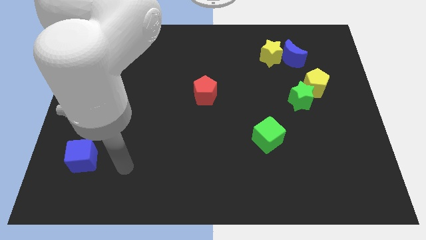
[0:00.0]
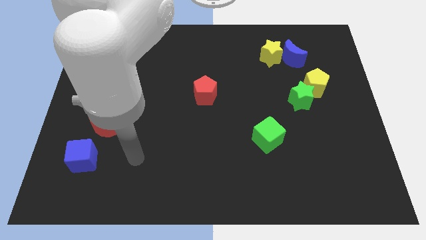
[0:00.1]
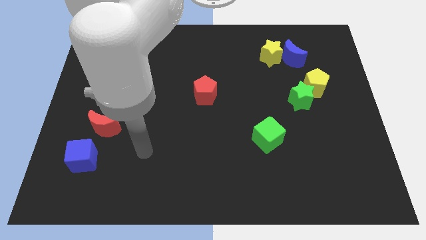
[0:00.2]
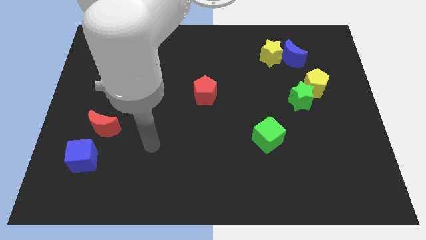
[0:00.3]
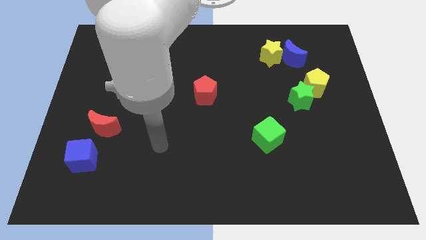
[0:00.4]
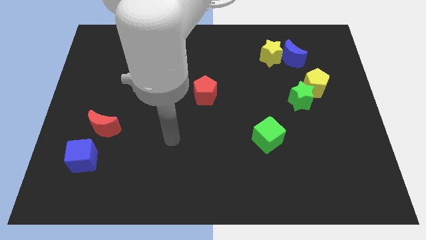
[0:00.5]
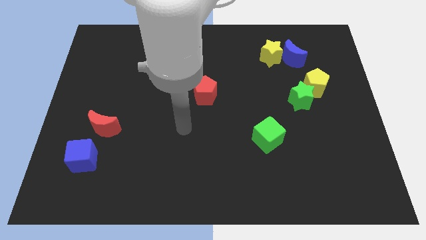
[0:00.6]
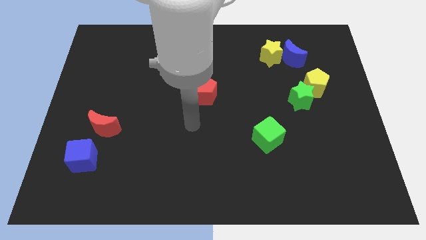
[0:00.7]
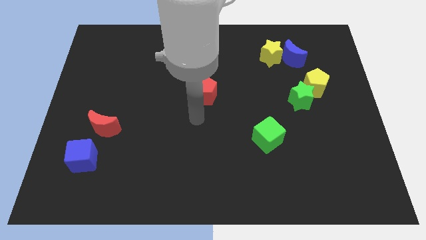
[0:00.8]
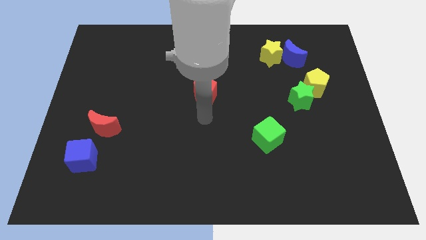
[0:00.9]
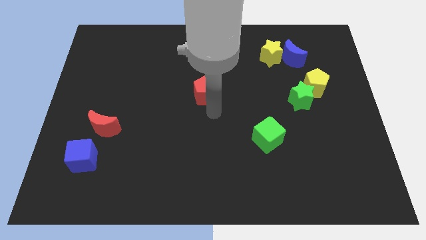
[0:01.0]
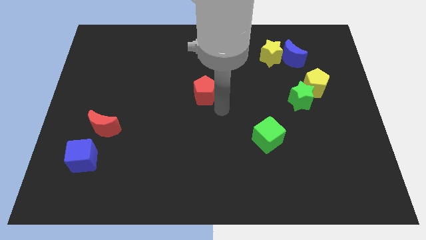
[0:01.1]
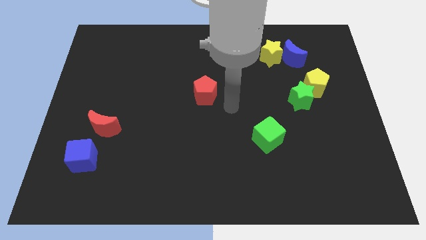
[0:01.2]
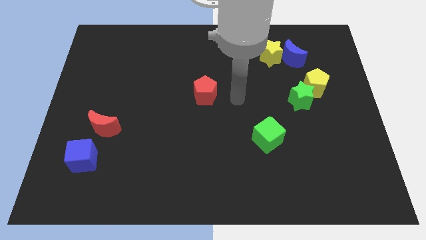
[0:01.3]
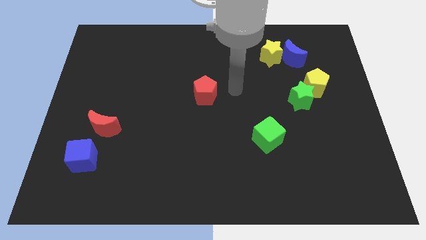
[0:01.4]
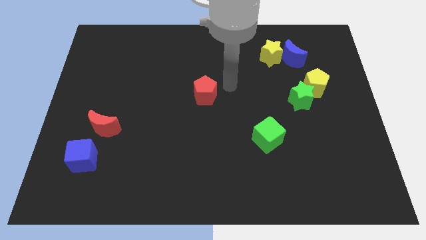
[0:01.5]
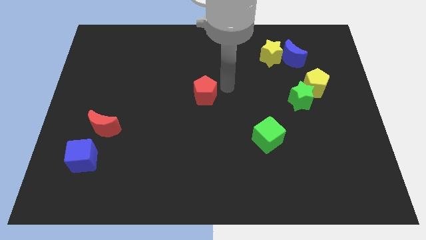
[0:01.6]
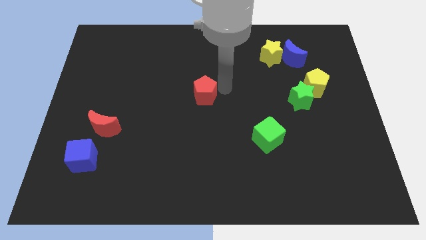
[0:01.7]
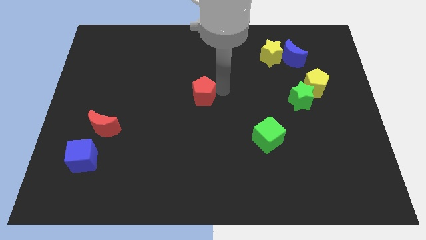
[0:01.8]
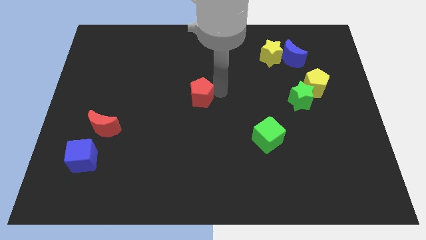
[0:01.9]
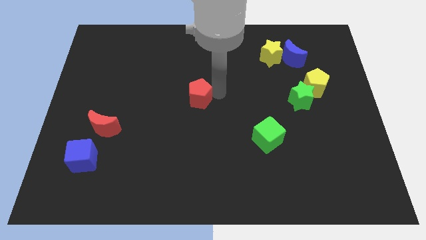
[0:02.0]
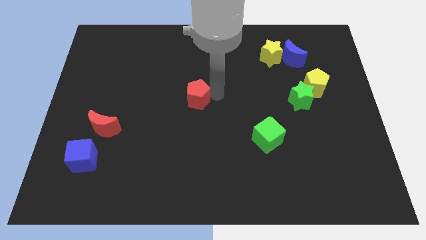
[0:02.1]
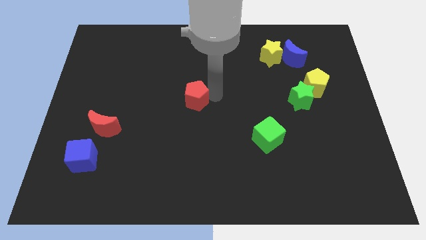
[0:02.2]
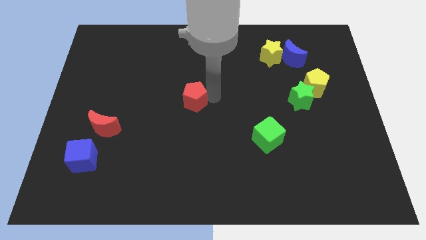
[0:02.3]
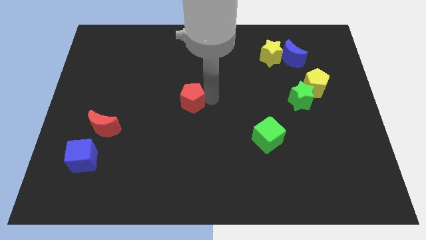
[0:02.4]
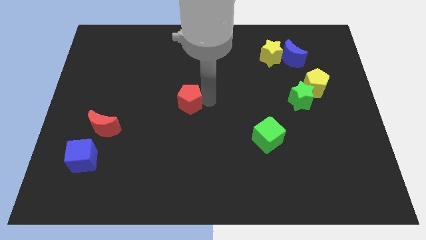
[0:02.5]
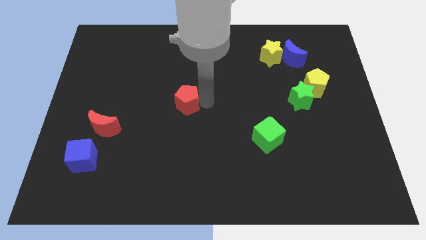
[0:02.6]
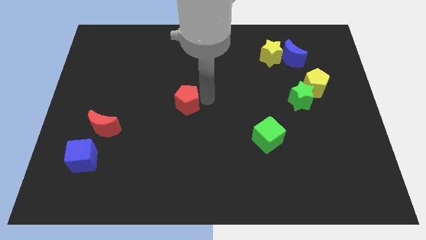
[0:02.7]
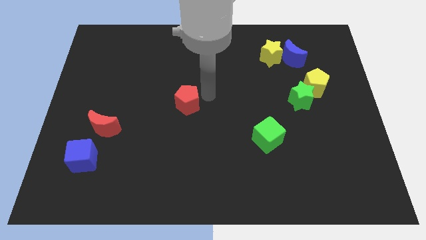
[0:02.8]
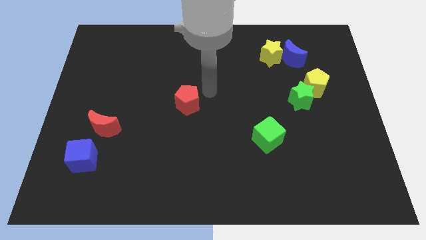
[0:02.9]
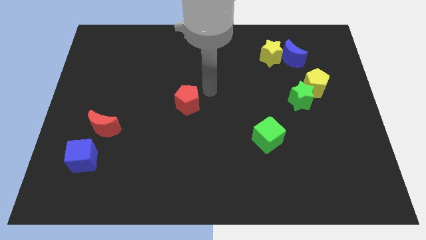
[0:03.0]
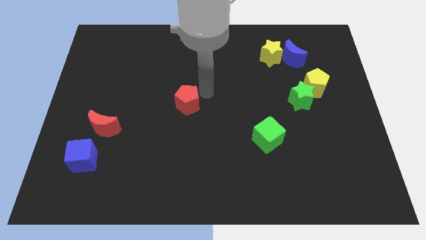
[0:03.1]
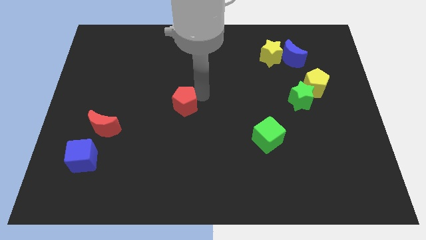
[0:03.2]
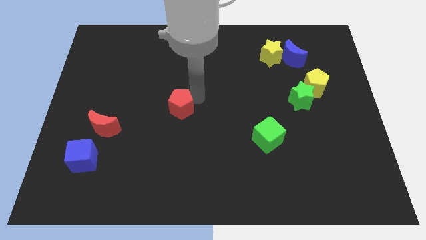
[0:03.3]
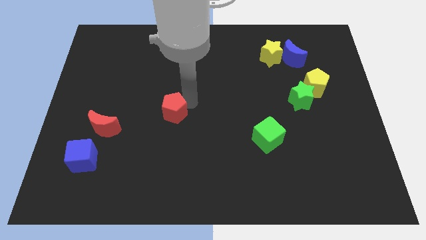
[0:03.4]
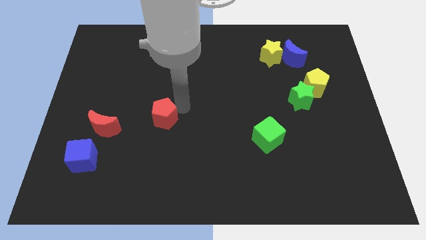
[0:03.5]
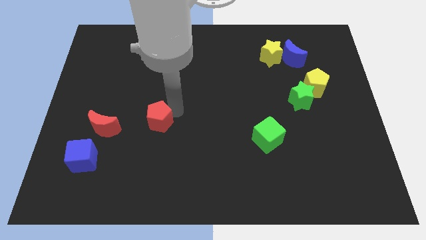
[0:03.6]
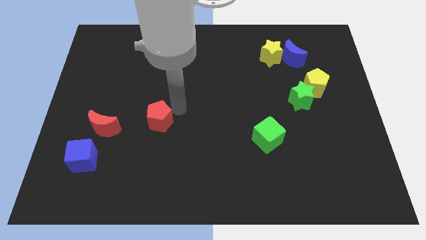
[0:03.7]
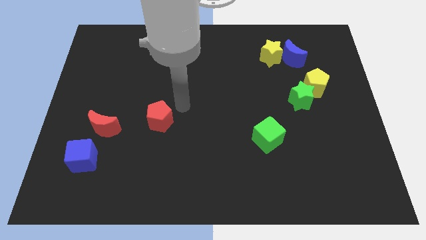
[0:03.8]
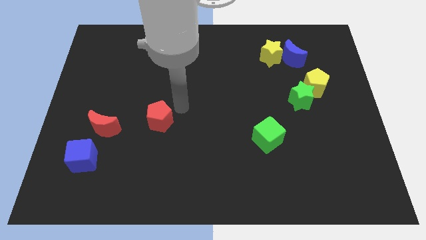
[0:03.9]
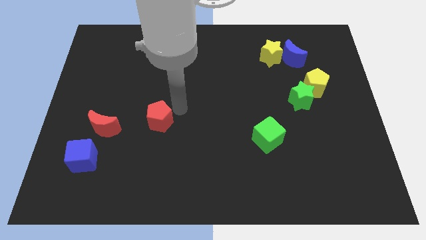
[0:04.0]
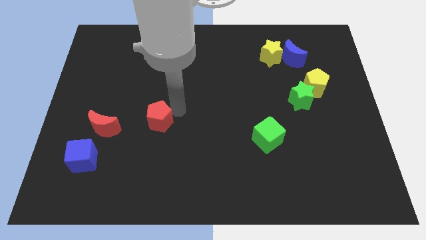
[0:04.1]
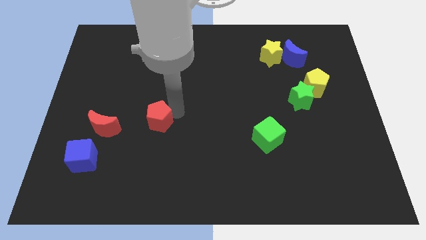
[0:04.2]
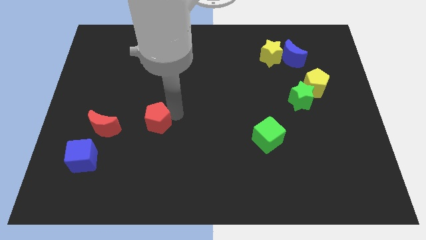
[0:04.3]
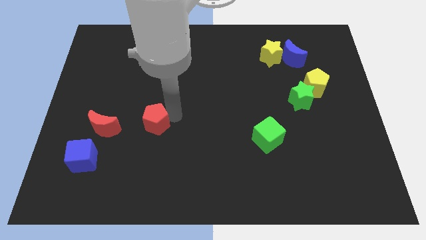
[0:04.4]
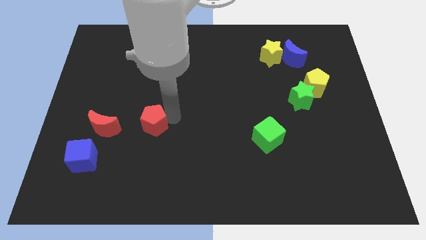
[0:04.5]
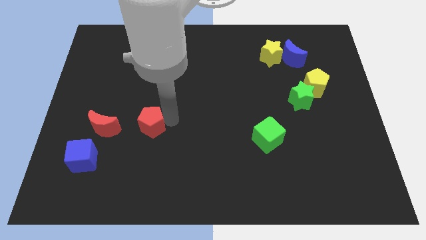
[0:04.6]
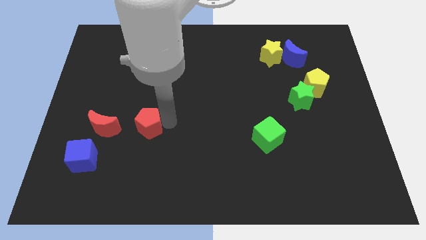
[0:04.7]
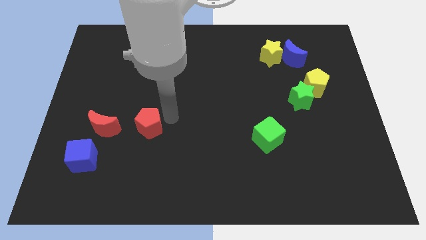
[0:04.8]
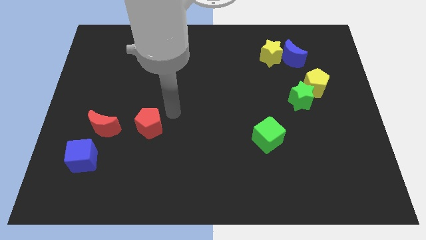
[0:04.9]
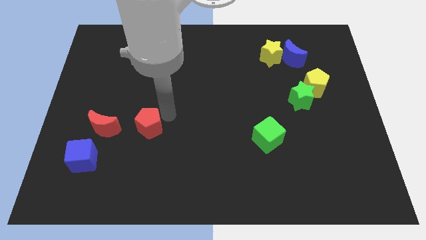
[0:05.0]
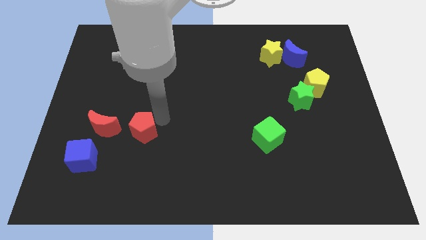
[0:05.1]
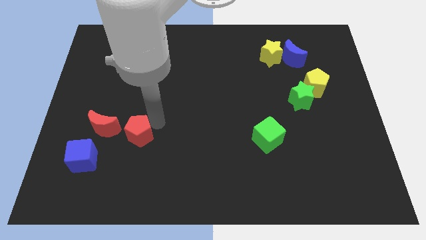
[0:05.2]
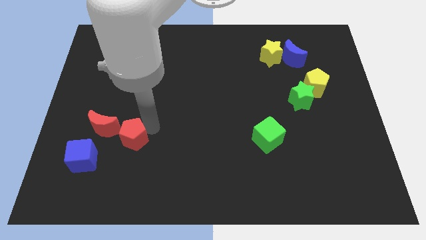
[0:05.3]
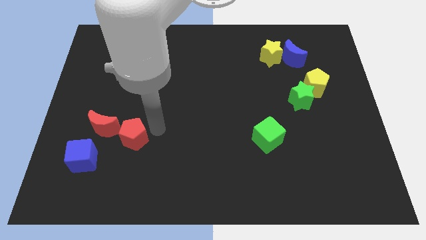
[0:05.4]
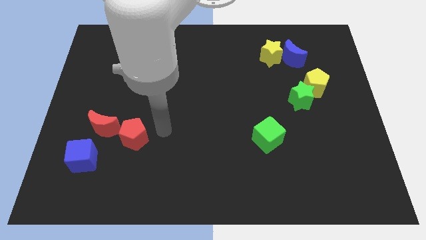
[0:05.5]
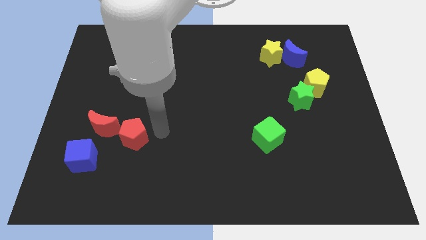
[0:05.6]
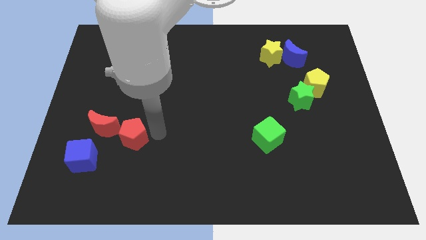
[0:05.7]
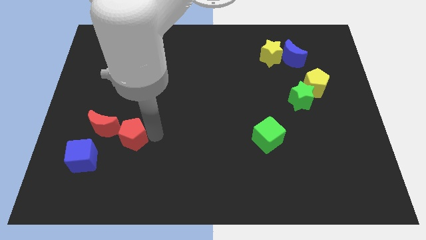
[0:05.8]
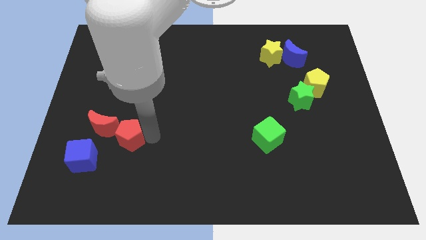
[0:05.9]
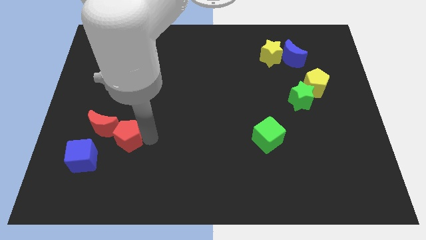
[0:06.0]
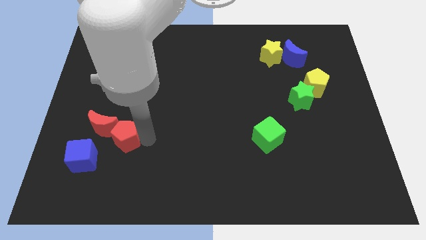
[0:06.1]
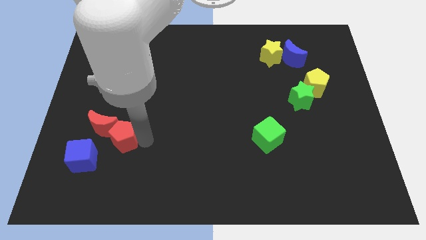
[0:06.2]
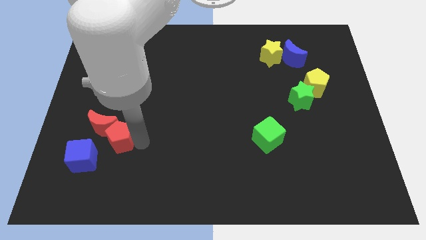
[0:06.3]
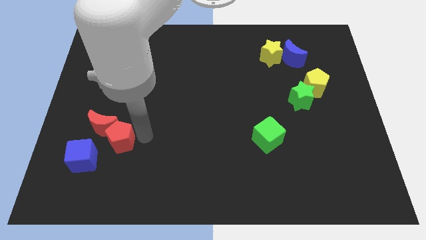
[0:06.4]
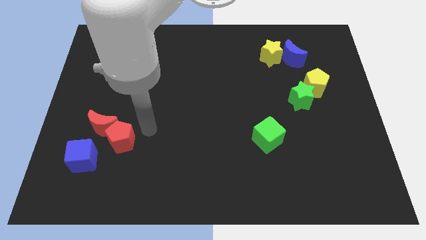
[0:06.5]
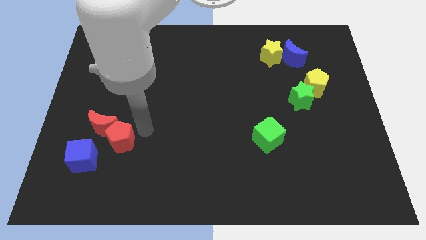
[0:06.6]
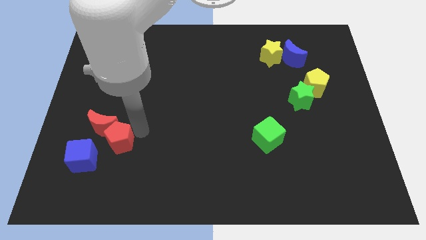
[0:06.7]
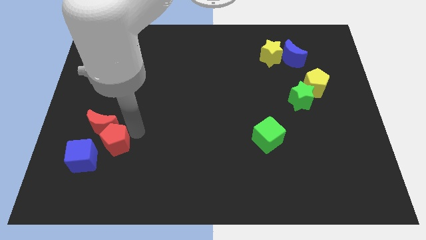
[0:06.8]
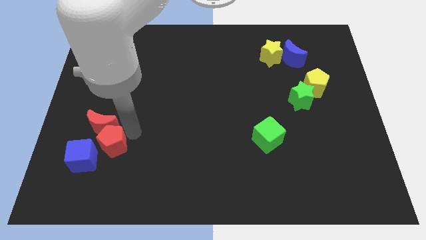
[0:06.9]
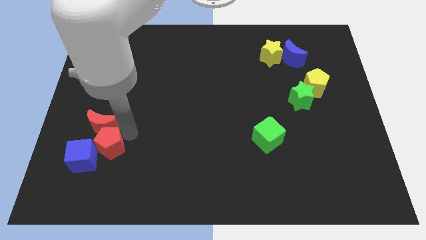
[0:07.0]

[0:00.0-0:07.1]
move the red pentagon next to the blue cube

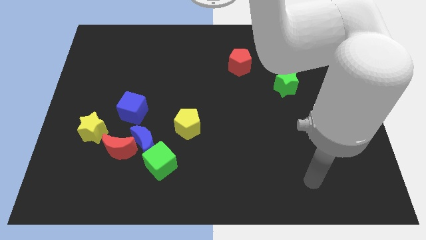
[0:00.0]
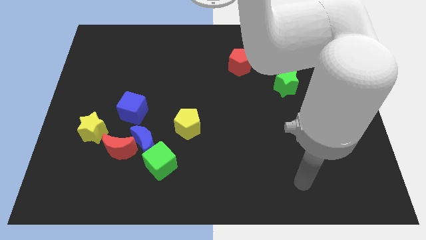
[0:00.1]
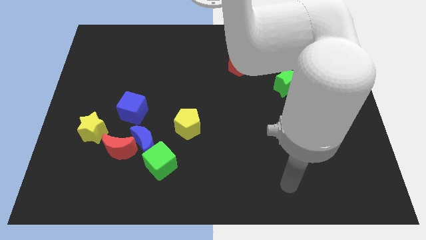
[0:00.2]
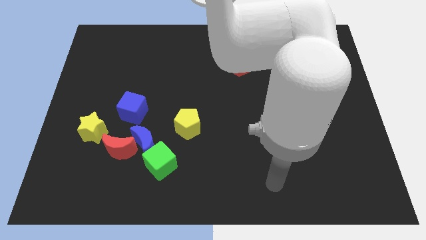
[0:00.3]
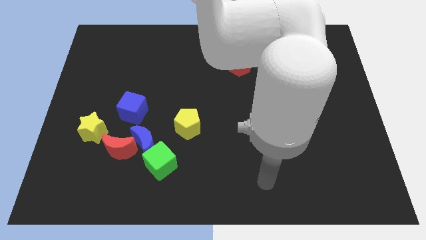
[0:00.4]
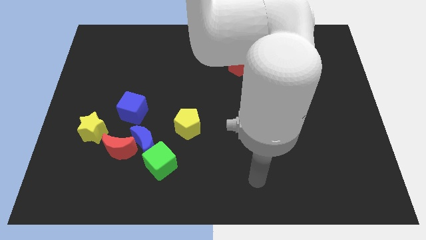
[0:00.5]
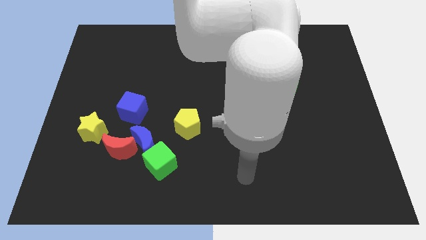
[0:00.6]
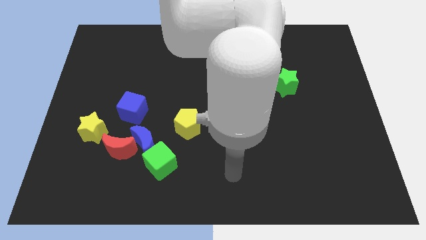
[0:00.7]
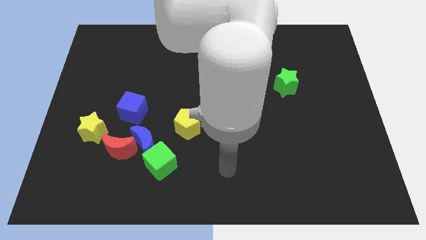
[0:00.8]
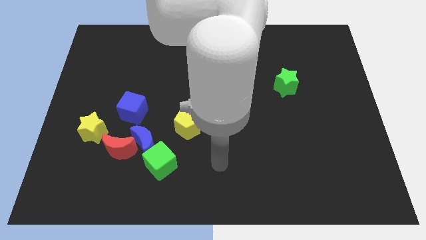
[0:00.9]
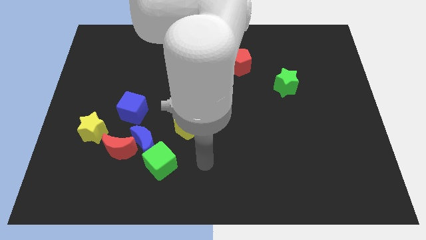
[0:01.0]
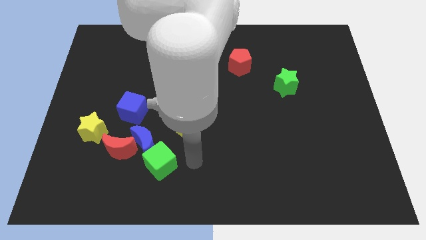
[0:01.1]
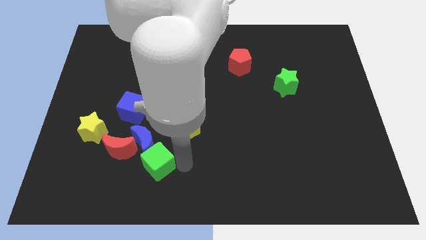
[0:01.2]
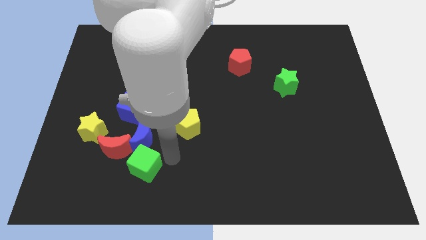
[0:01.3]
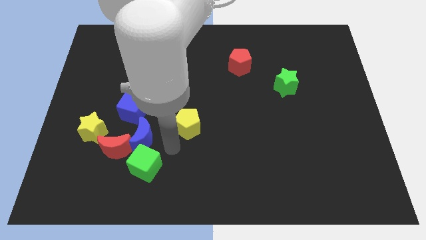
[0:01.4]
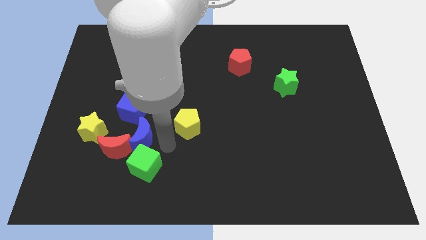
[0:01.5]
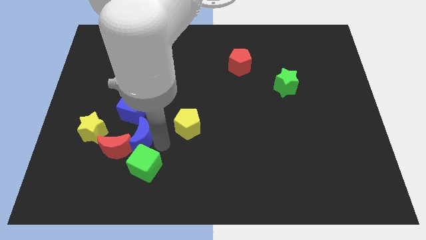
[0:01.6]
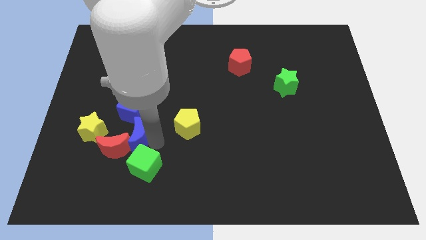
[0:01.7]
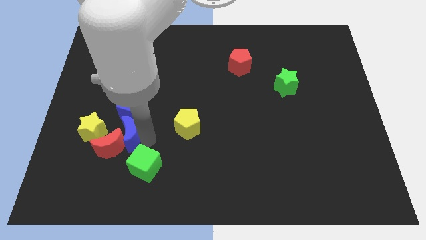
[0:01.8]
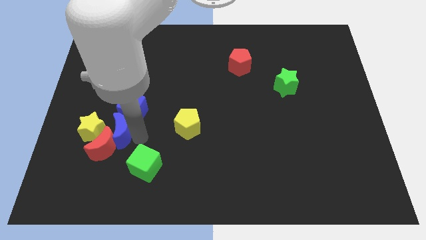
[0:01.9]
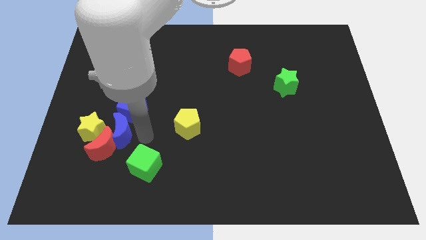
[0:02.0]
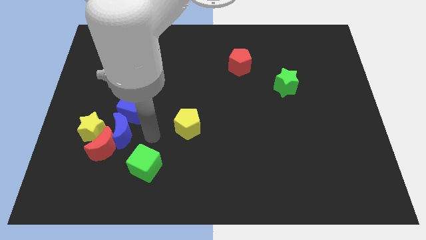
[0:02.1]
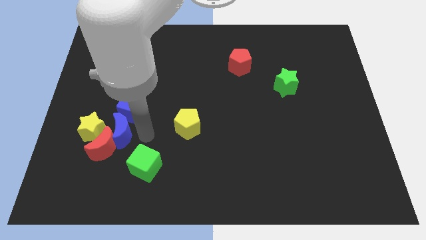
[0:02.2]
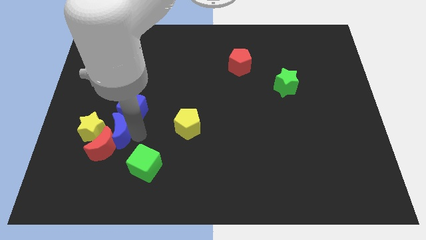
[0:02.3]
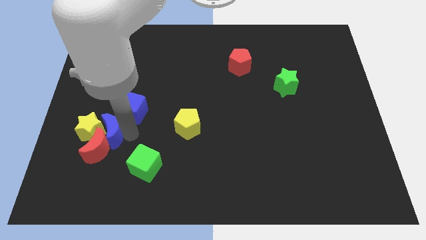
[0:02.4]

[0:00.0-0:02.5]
push the blue moon next to the yellow star
